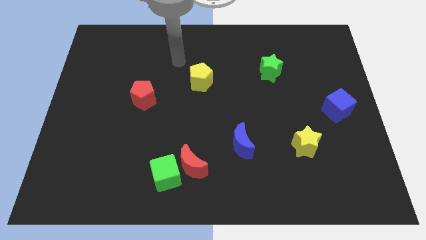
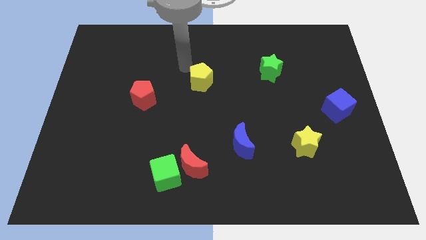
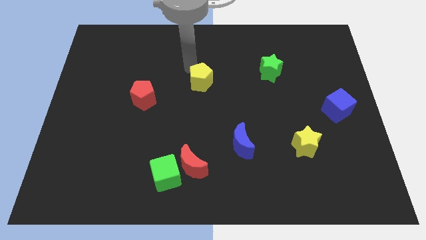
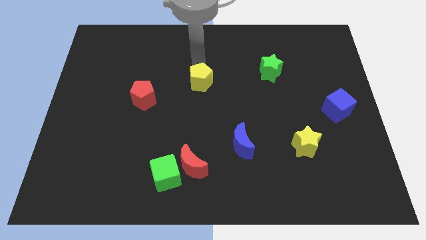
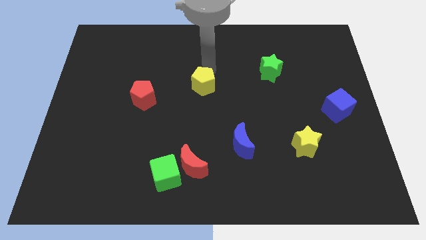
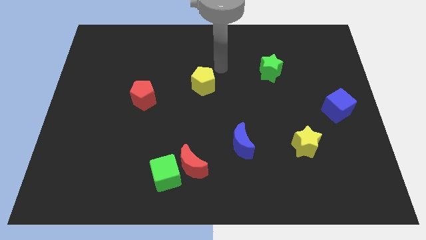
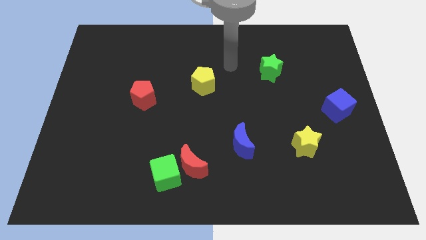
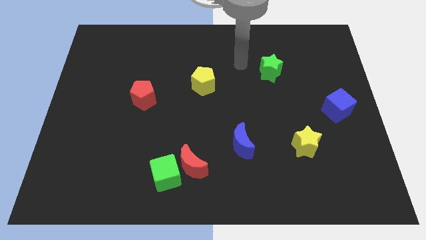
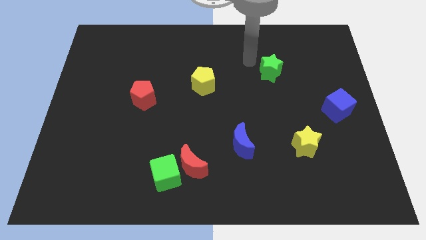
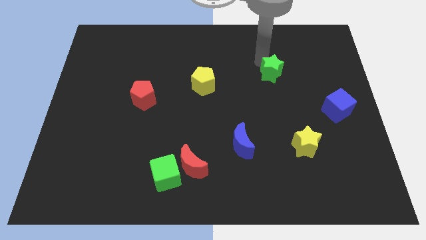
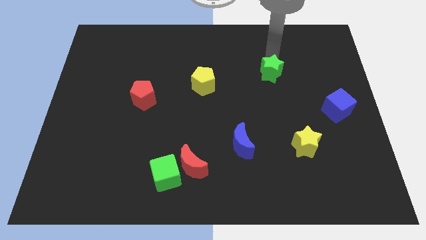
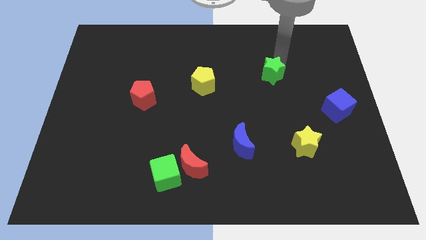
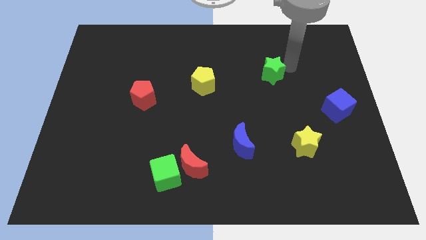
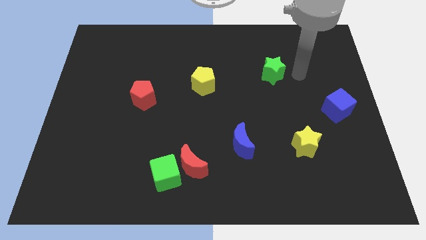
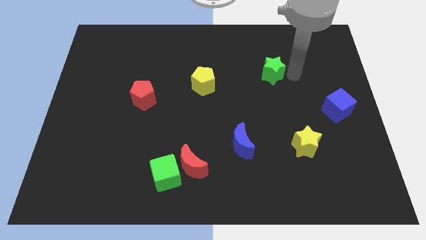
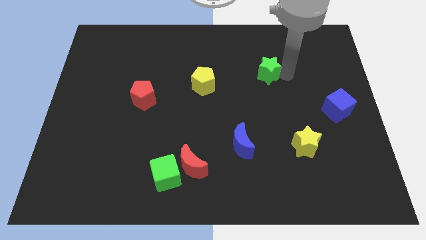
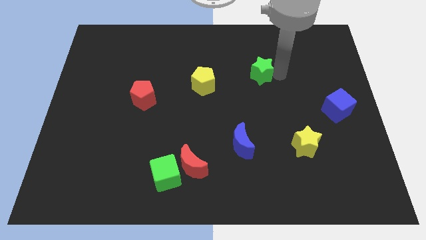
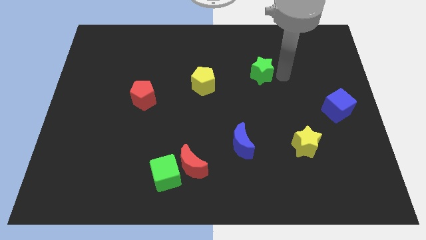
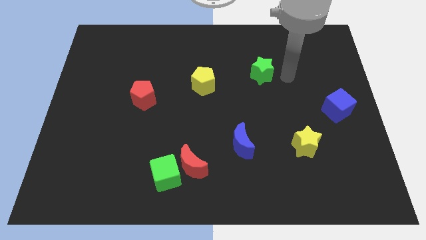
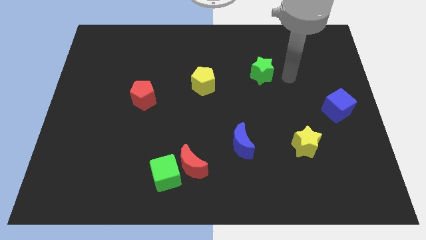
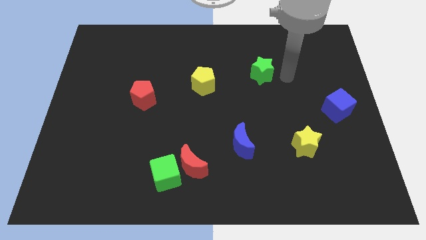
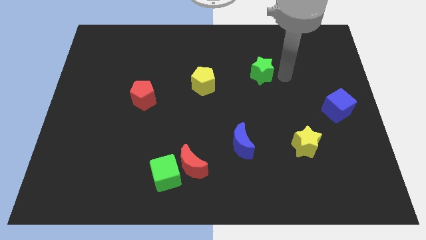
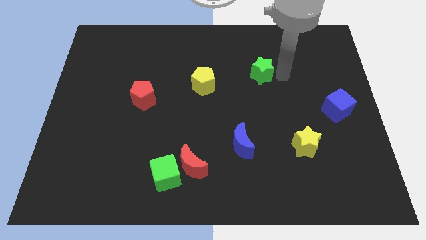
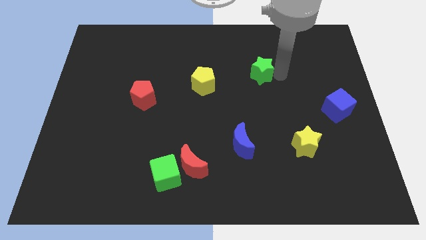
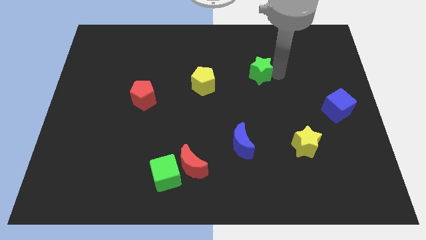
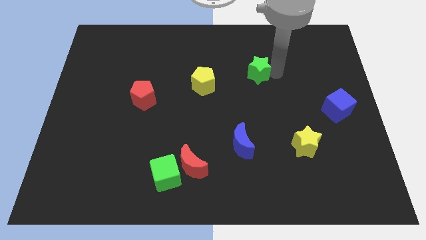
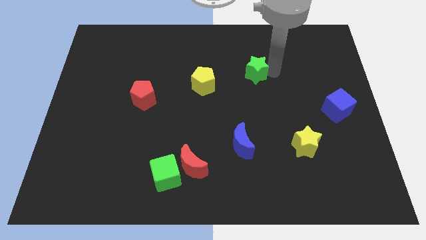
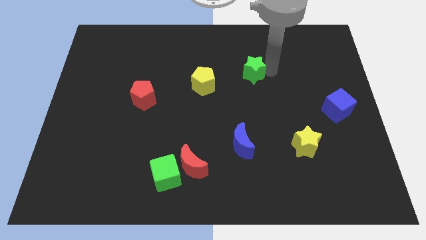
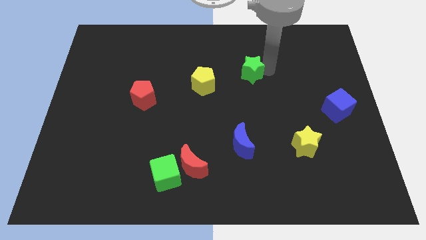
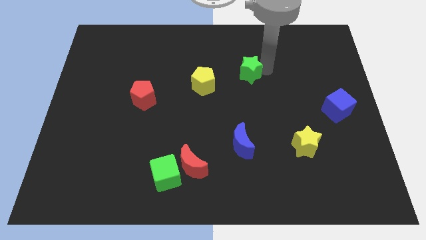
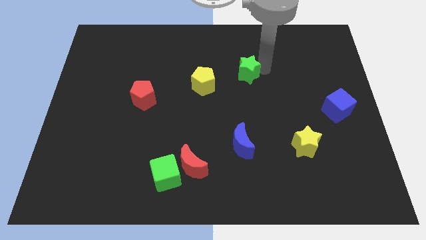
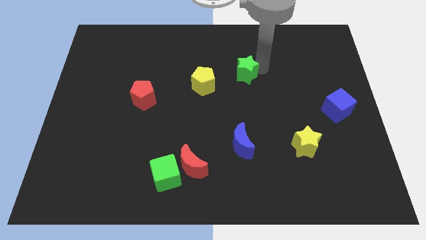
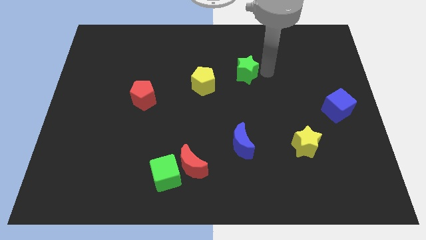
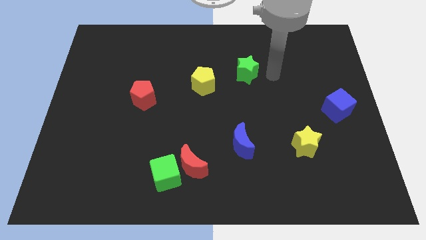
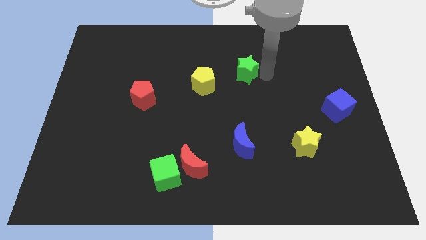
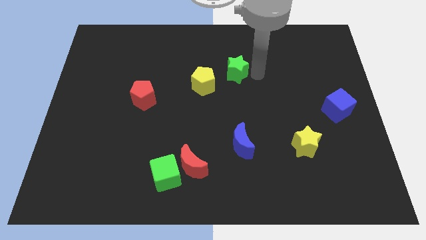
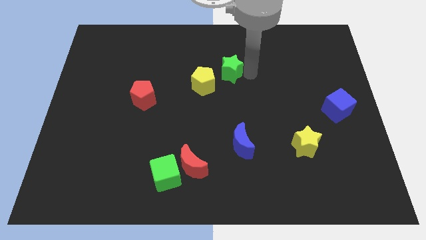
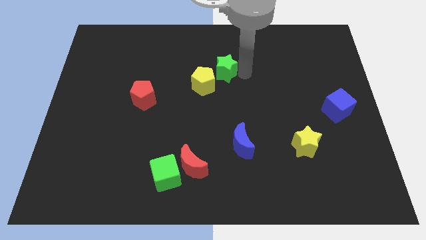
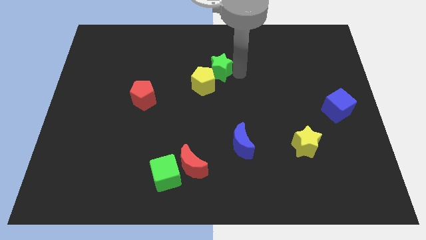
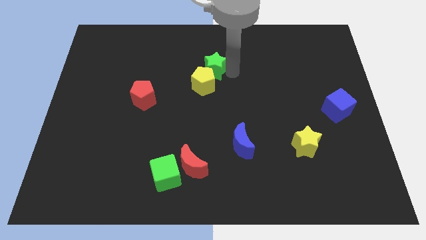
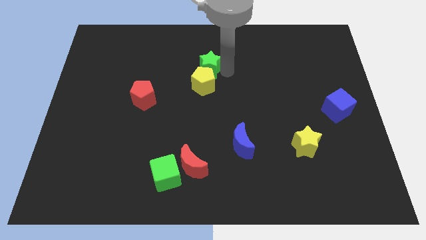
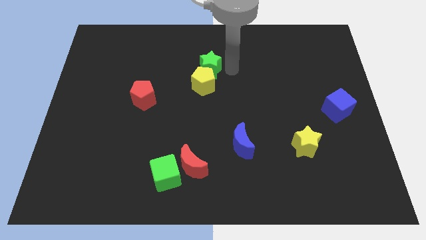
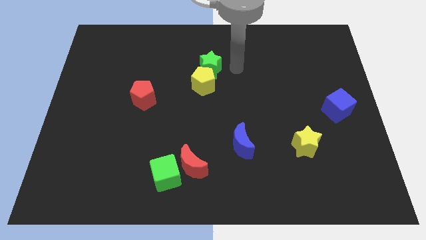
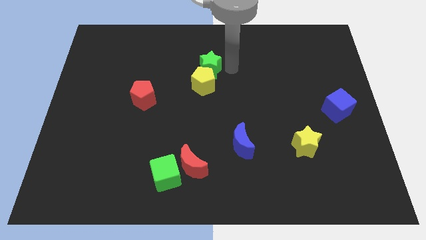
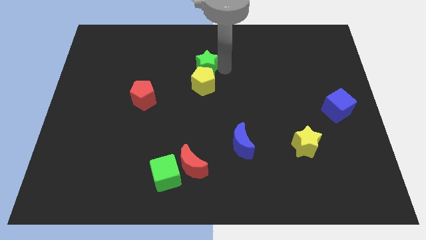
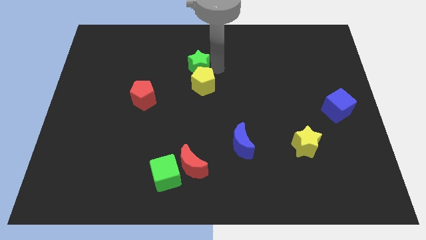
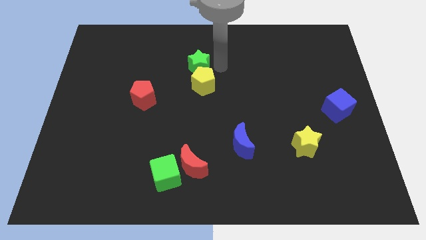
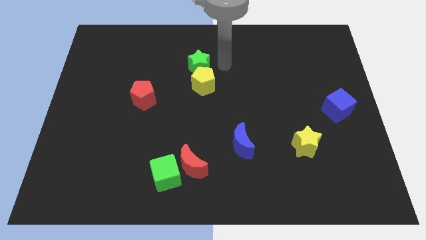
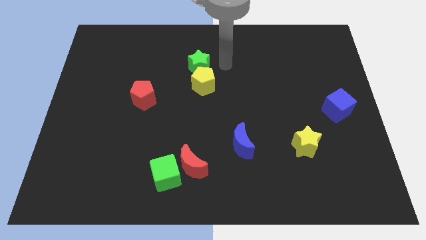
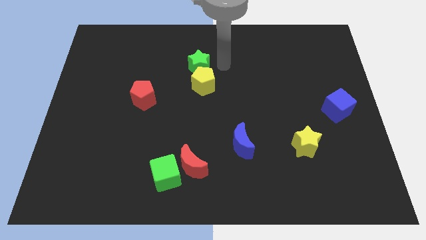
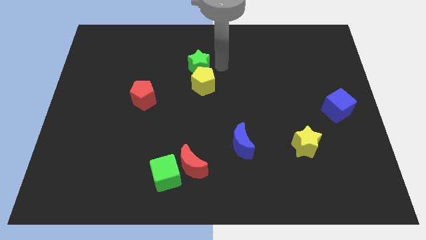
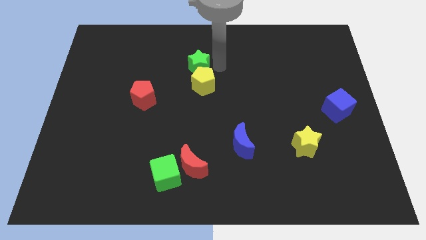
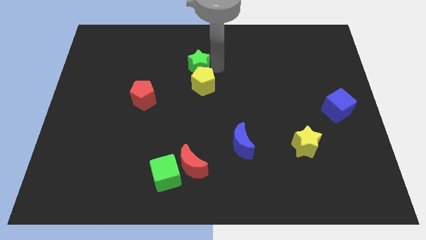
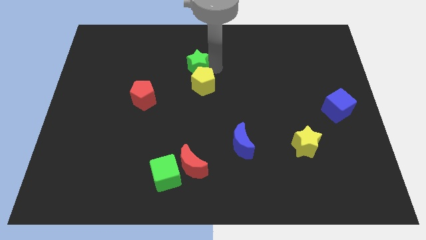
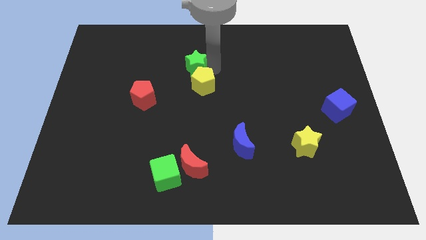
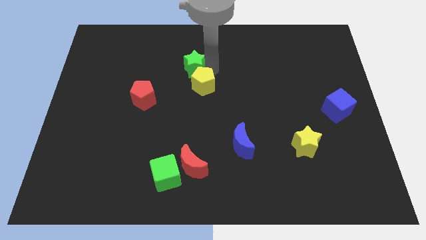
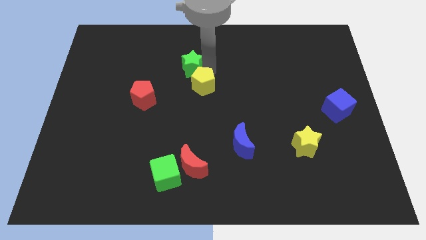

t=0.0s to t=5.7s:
slide the green star left

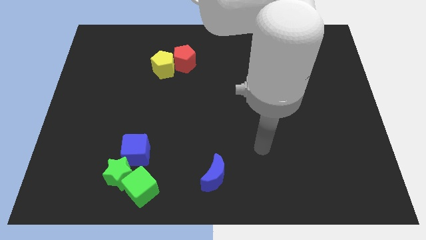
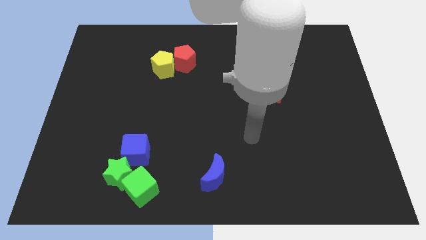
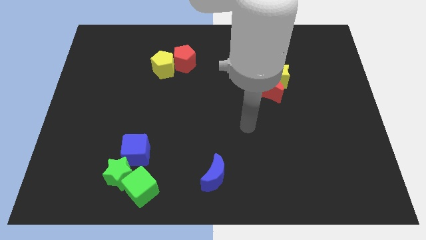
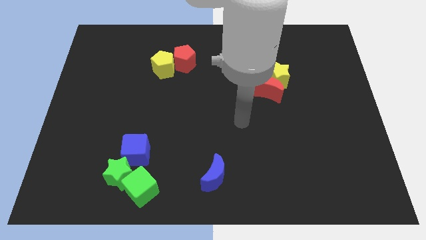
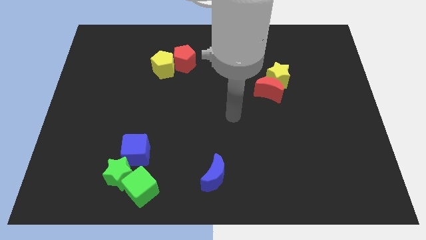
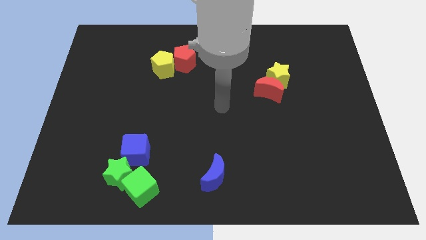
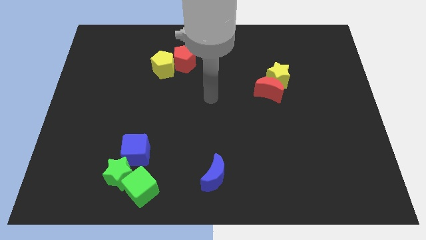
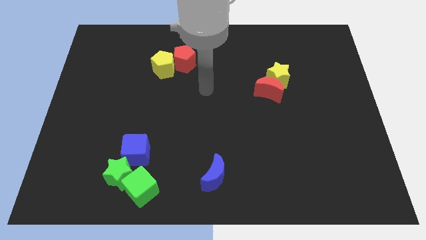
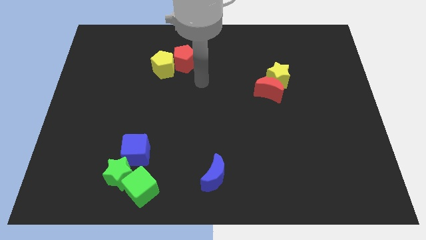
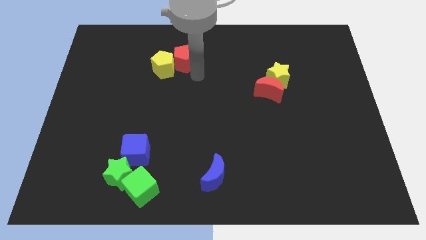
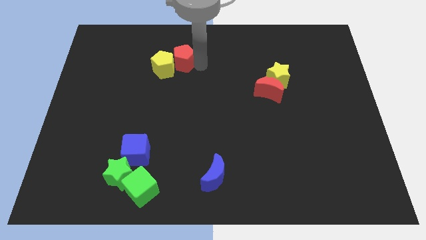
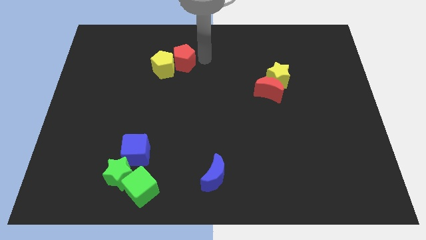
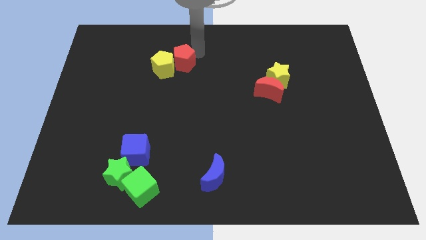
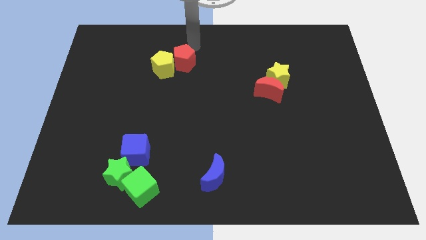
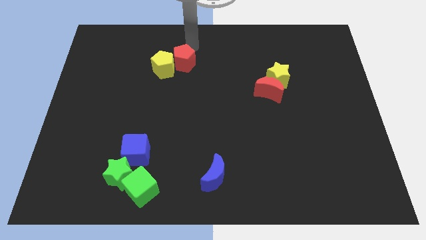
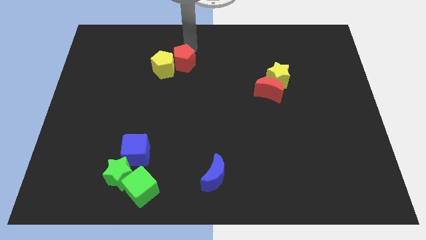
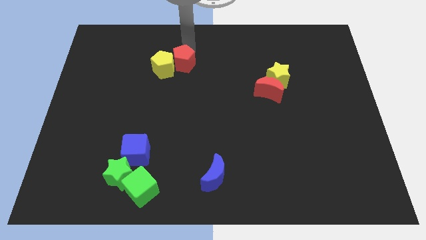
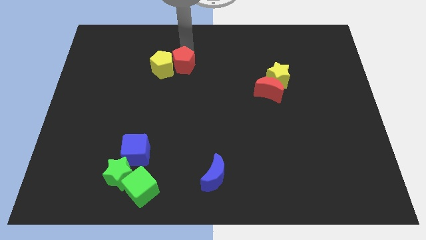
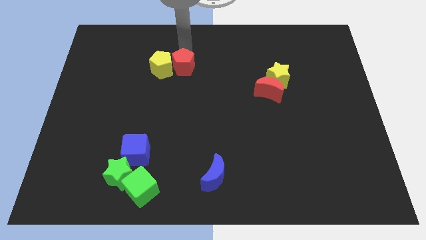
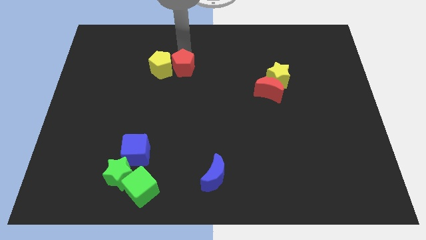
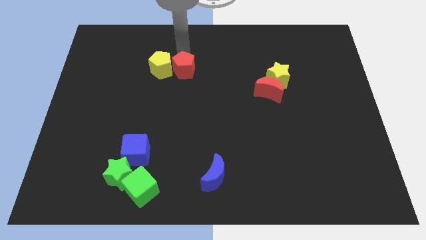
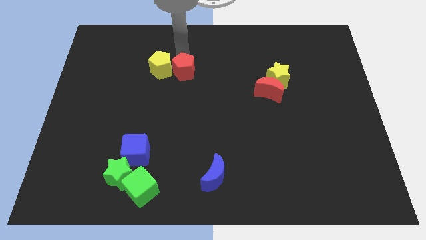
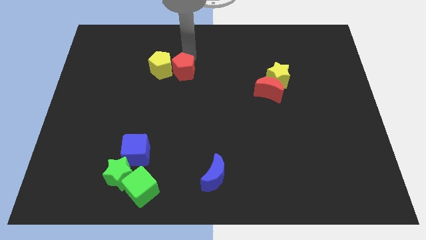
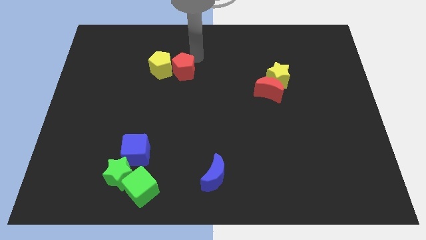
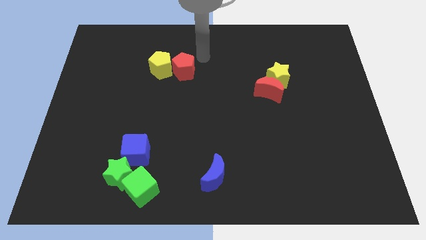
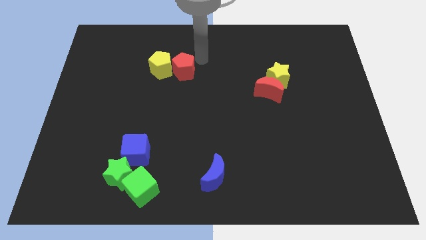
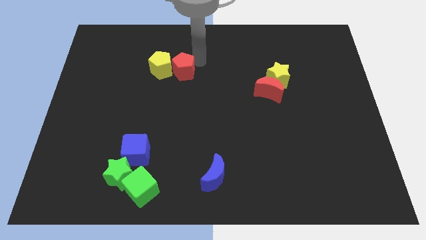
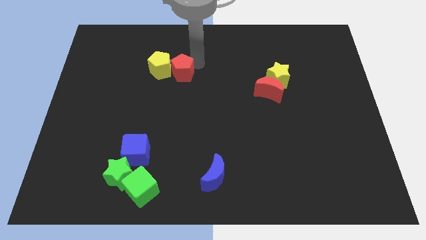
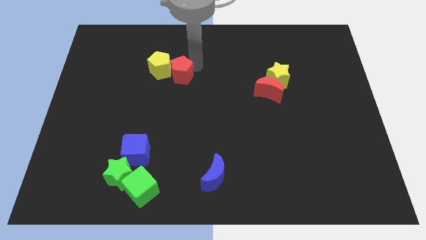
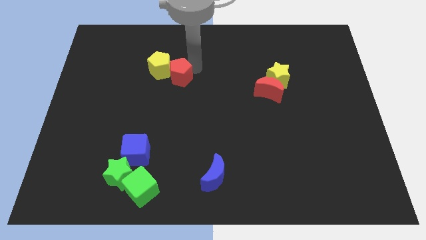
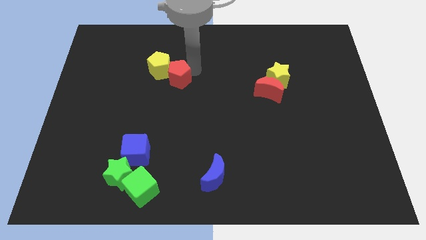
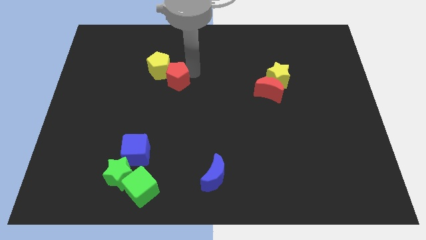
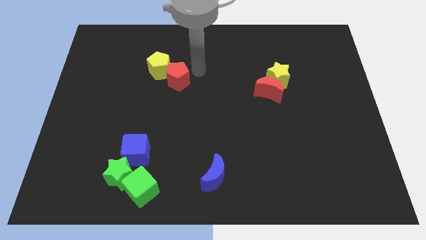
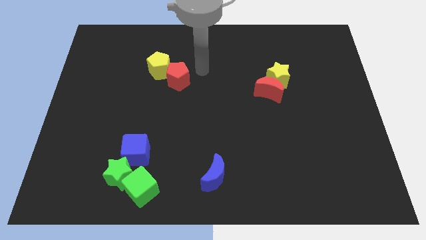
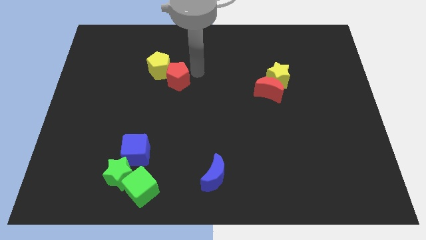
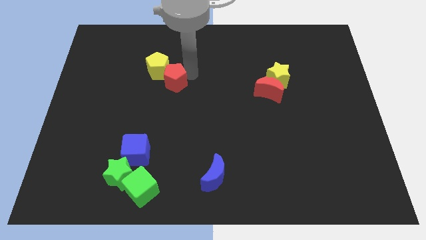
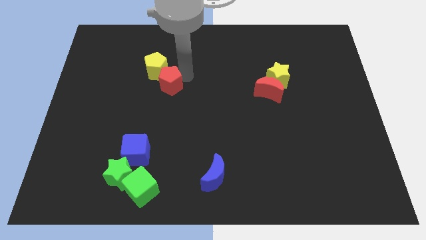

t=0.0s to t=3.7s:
push the red pentagon down and to the left slightly
